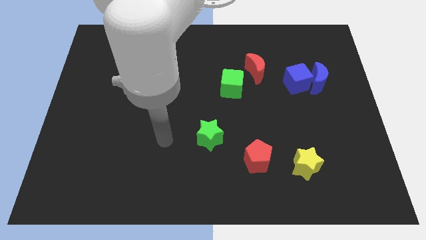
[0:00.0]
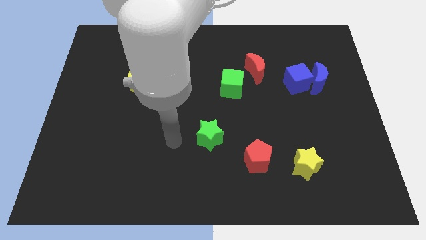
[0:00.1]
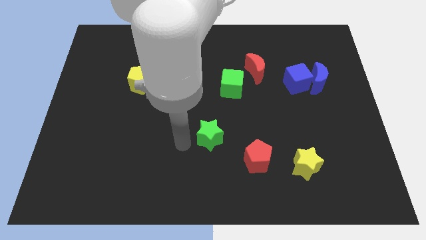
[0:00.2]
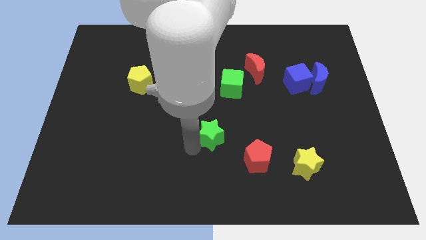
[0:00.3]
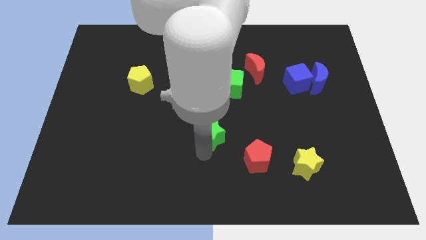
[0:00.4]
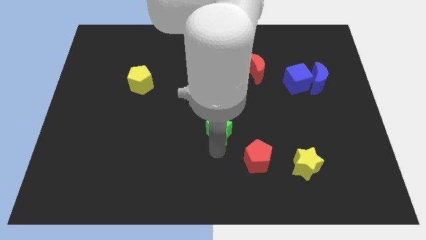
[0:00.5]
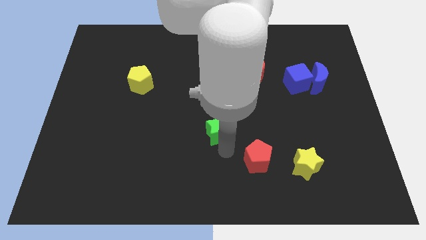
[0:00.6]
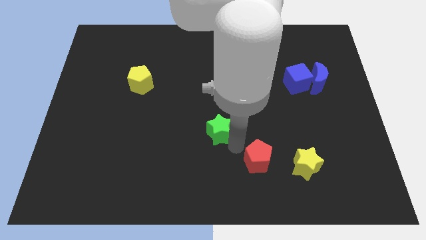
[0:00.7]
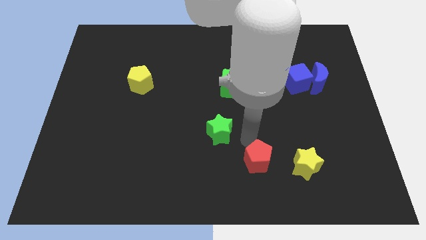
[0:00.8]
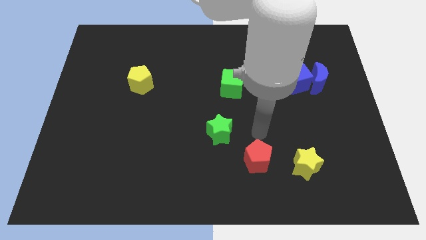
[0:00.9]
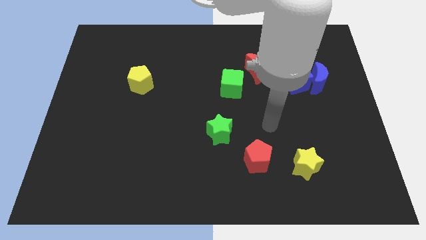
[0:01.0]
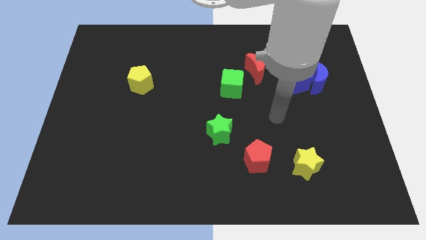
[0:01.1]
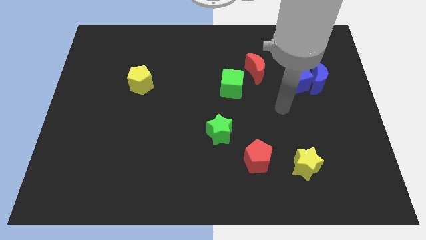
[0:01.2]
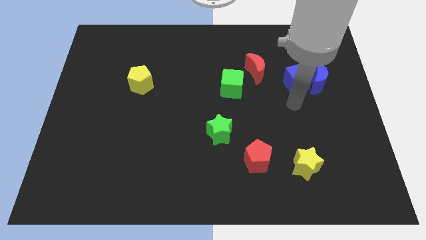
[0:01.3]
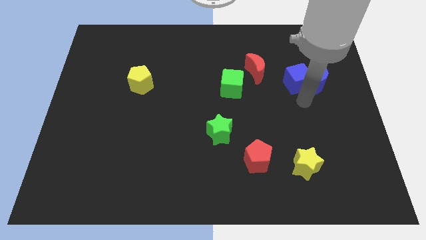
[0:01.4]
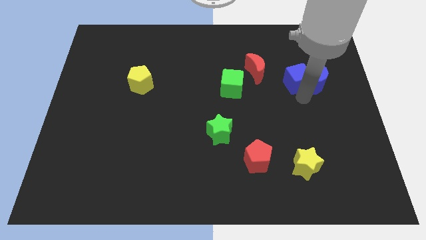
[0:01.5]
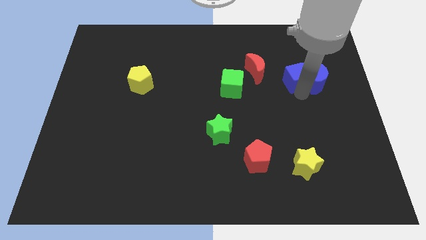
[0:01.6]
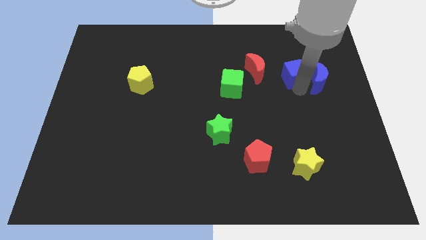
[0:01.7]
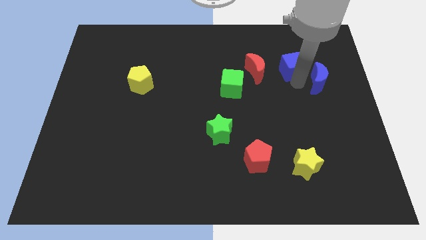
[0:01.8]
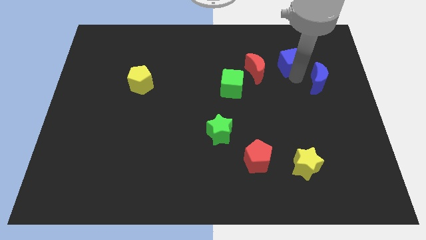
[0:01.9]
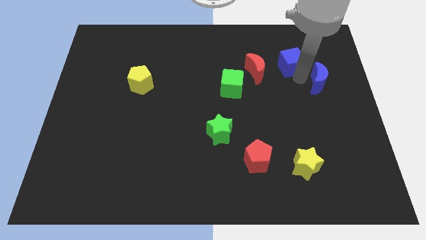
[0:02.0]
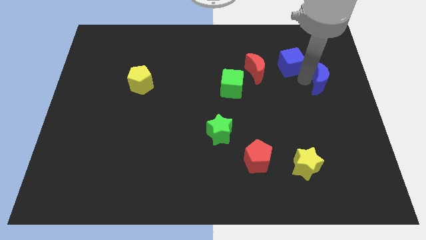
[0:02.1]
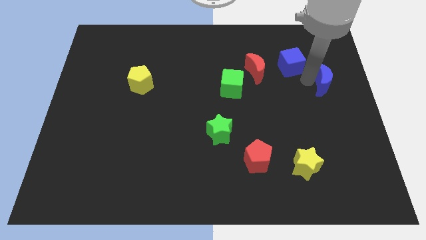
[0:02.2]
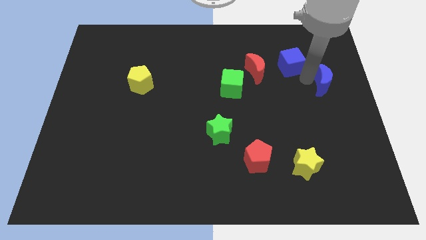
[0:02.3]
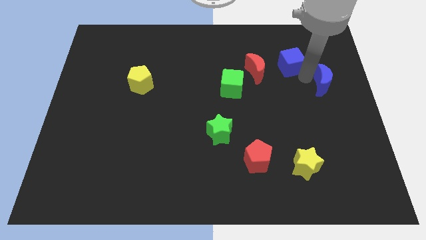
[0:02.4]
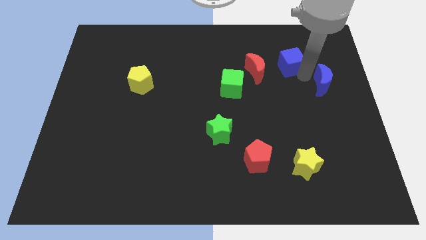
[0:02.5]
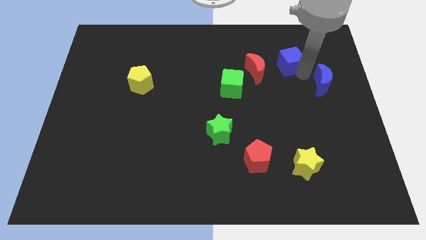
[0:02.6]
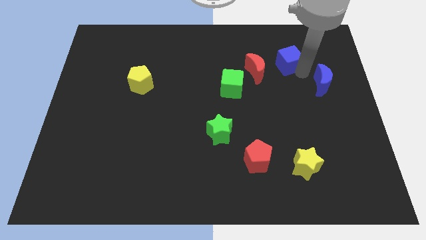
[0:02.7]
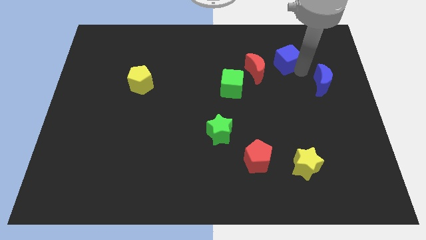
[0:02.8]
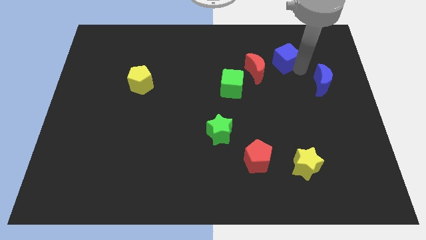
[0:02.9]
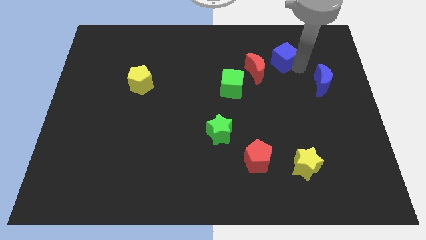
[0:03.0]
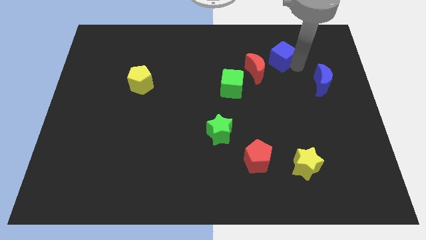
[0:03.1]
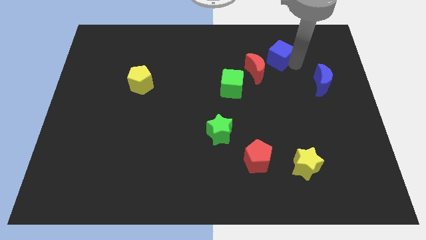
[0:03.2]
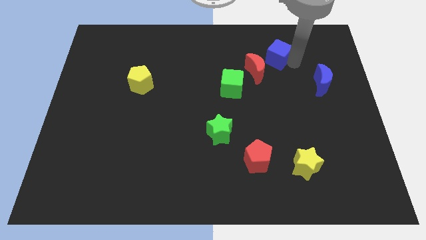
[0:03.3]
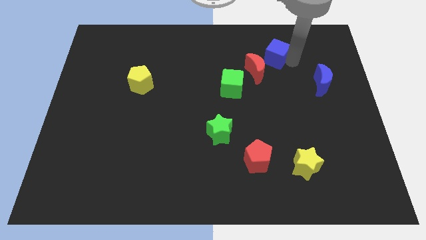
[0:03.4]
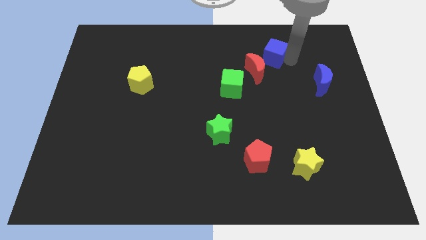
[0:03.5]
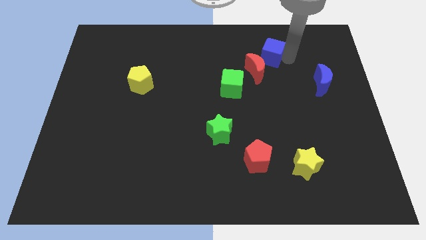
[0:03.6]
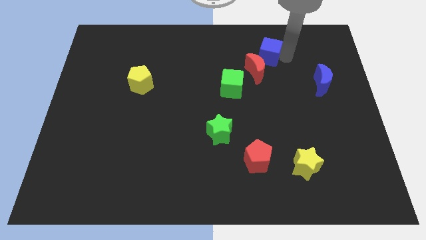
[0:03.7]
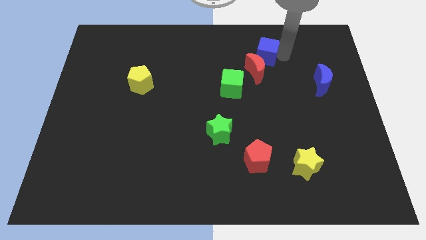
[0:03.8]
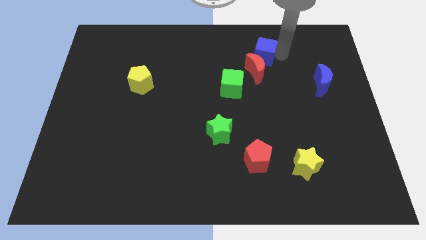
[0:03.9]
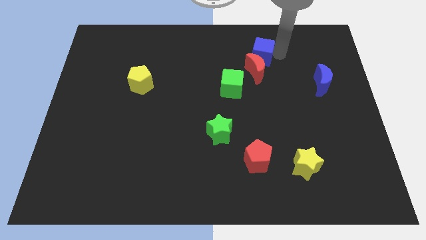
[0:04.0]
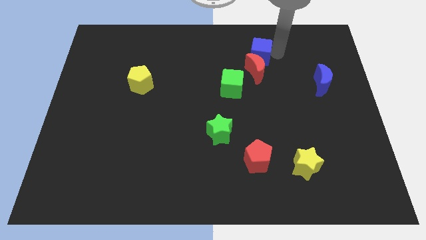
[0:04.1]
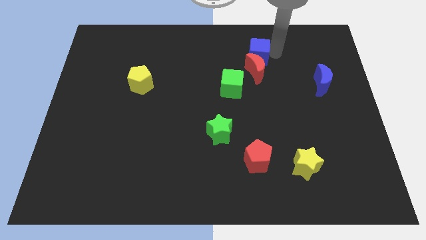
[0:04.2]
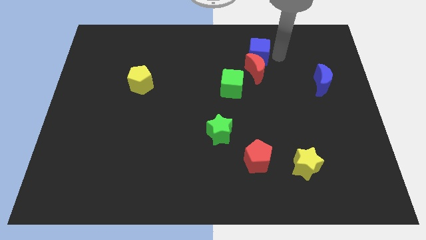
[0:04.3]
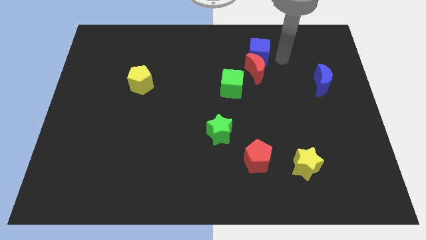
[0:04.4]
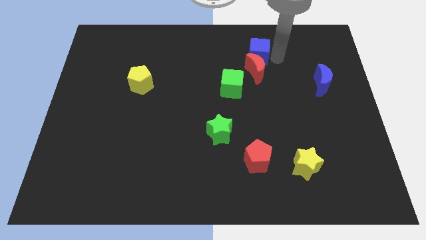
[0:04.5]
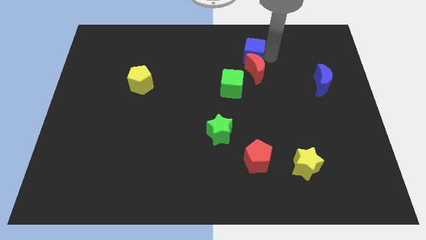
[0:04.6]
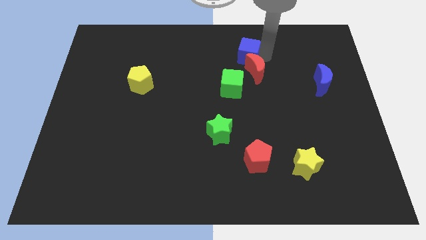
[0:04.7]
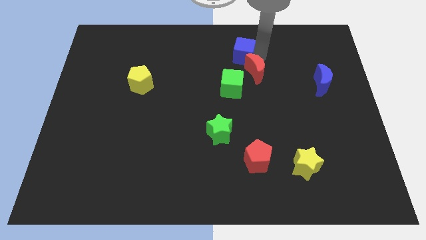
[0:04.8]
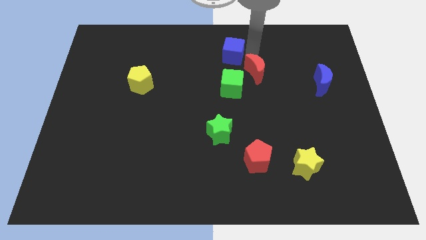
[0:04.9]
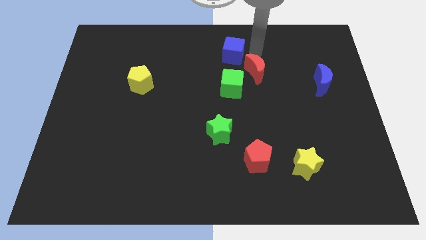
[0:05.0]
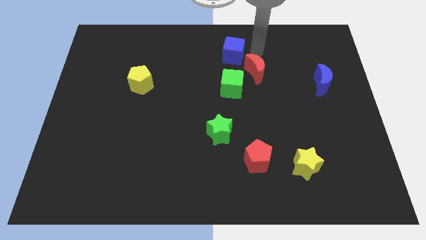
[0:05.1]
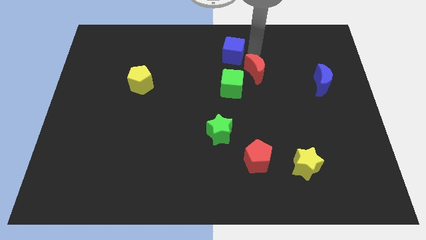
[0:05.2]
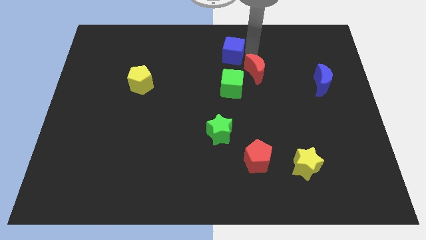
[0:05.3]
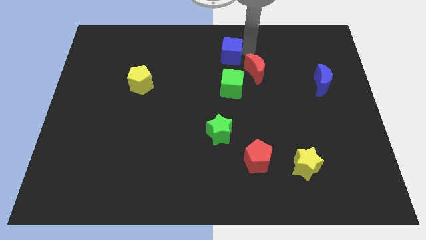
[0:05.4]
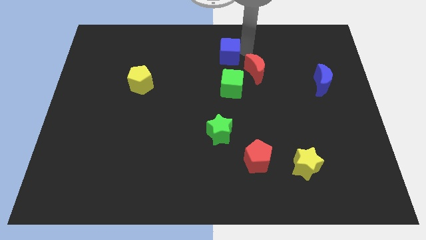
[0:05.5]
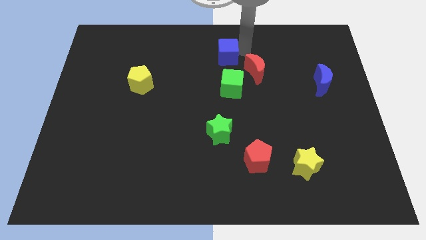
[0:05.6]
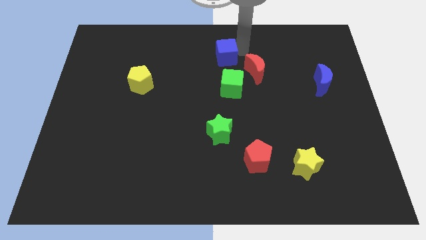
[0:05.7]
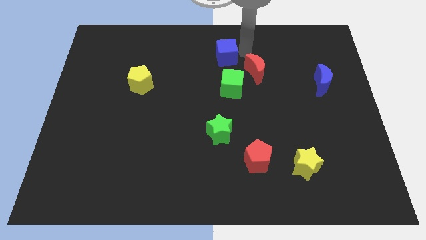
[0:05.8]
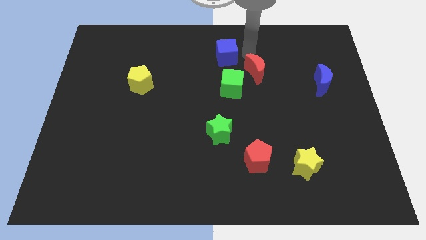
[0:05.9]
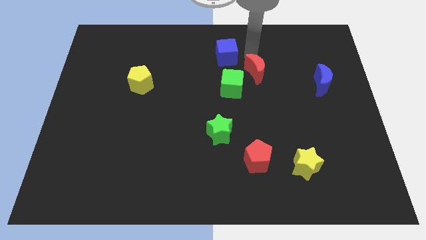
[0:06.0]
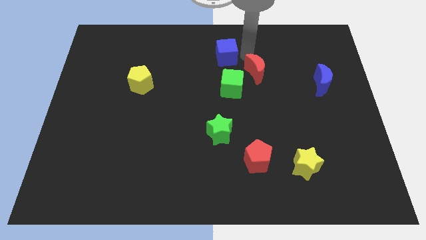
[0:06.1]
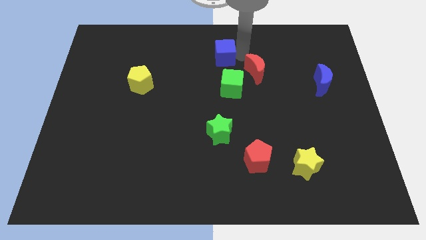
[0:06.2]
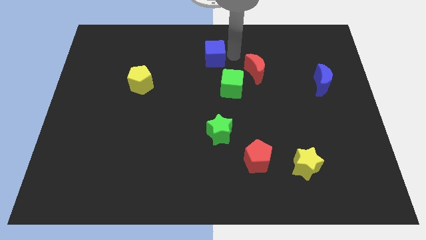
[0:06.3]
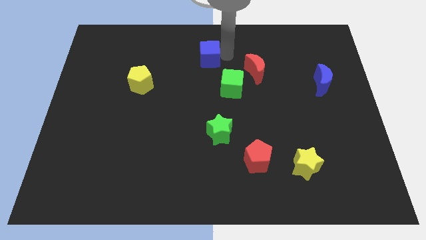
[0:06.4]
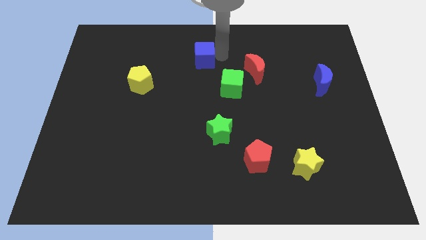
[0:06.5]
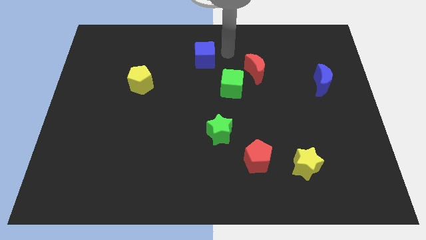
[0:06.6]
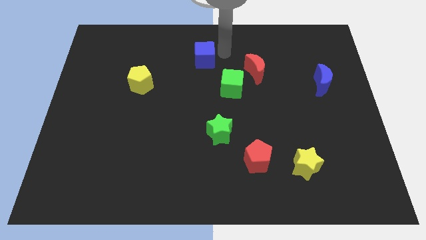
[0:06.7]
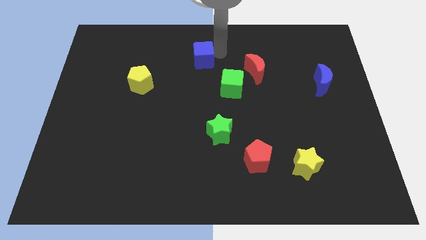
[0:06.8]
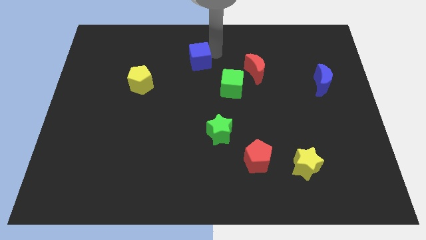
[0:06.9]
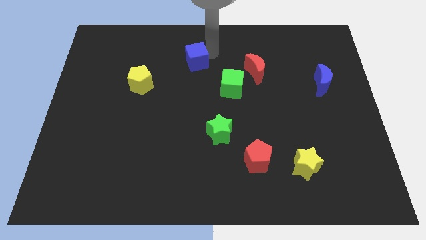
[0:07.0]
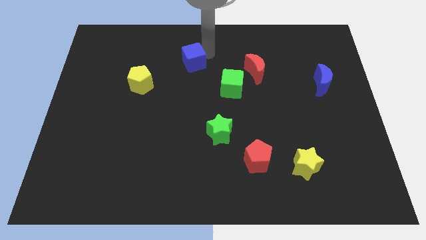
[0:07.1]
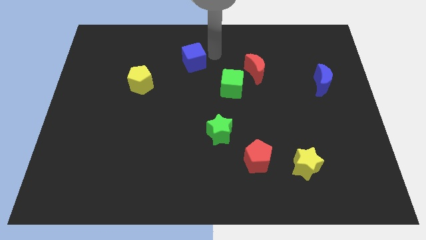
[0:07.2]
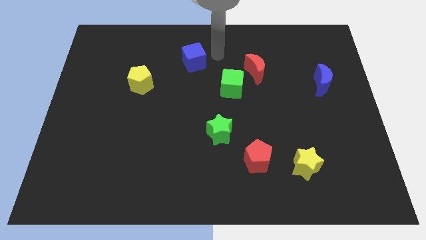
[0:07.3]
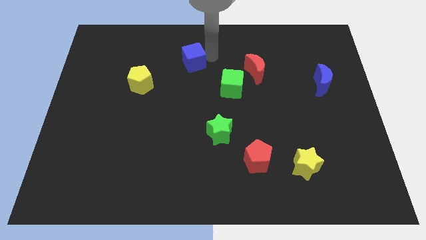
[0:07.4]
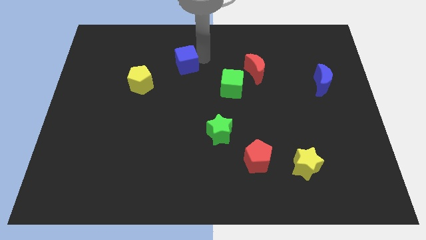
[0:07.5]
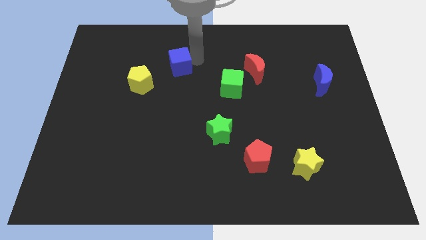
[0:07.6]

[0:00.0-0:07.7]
move the blue cube diagonally up and to the right of the yellow pentagon

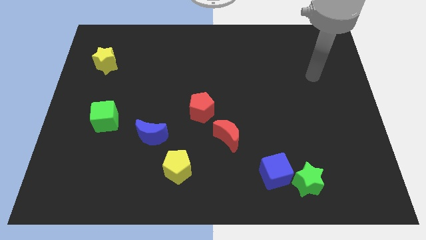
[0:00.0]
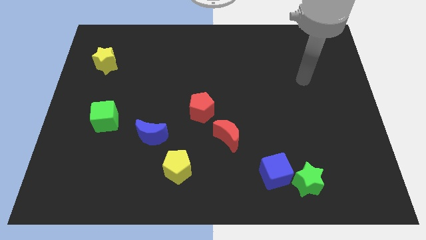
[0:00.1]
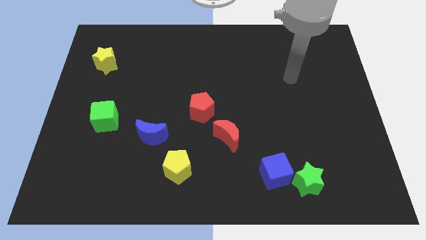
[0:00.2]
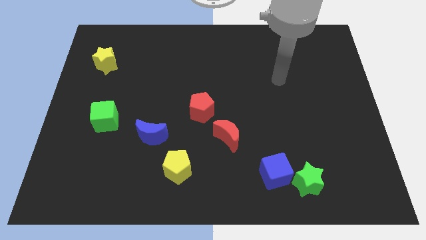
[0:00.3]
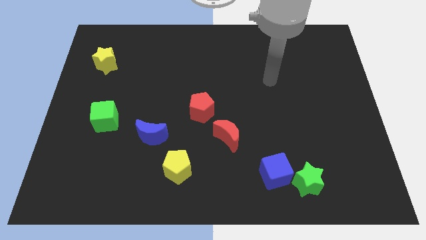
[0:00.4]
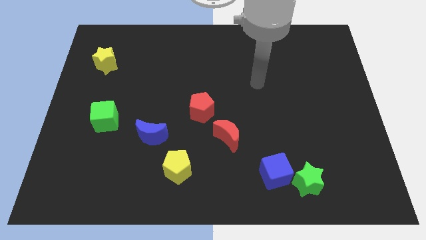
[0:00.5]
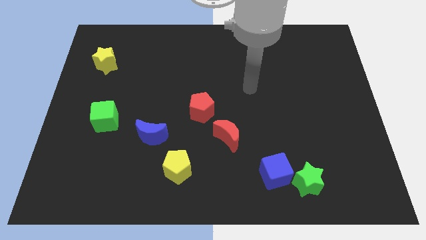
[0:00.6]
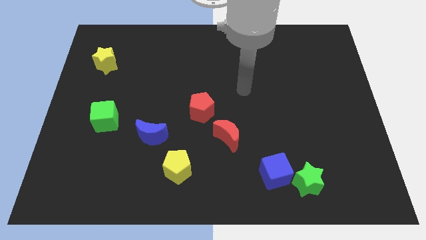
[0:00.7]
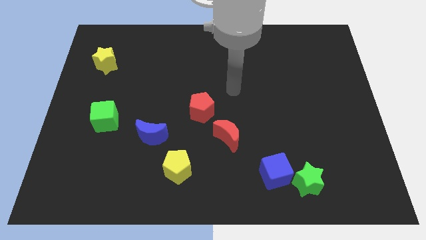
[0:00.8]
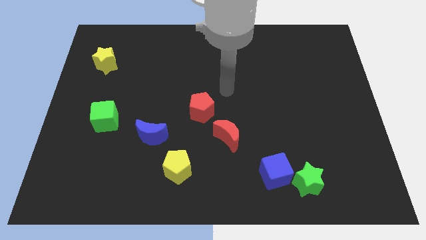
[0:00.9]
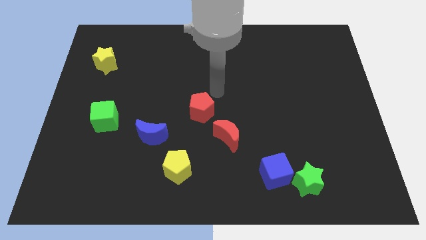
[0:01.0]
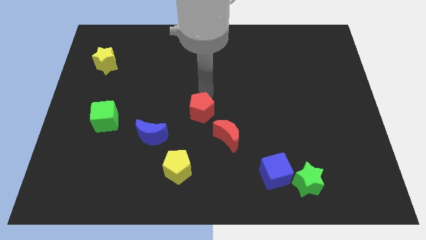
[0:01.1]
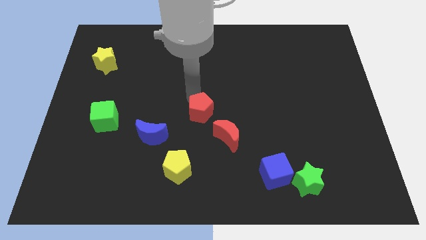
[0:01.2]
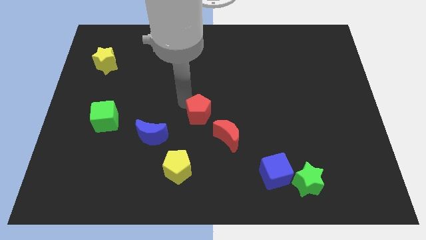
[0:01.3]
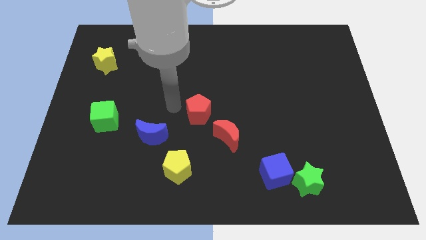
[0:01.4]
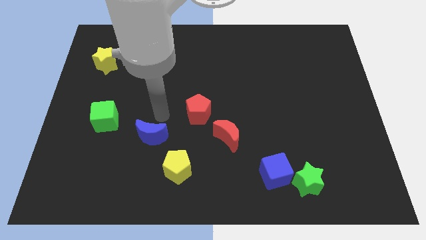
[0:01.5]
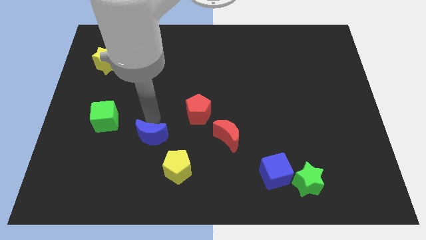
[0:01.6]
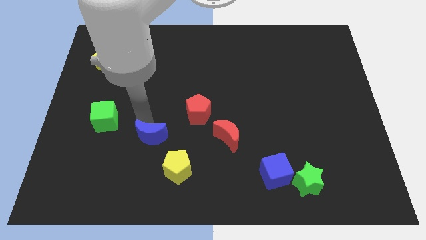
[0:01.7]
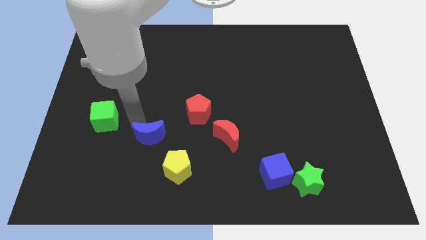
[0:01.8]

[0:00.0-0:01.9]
put the green cube diagonally up and to the left of the blue moon
